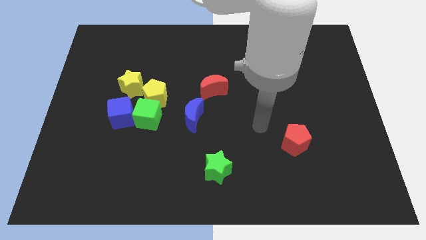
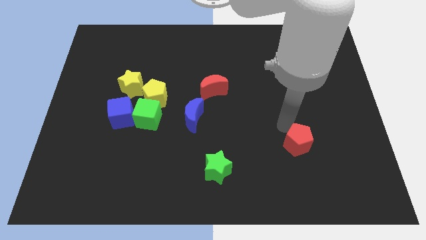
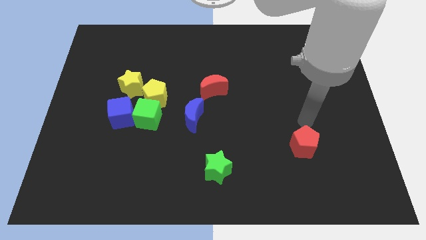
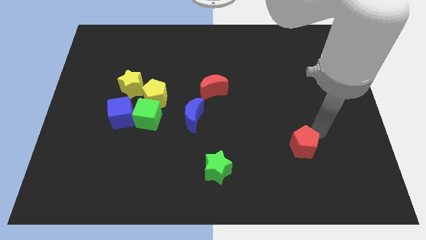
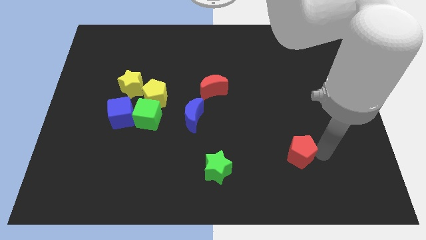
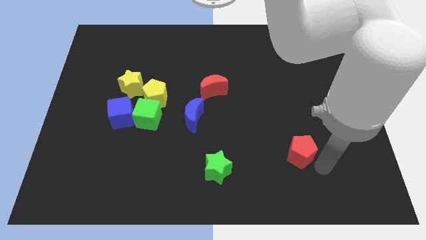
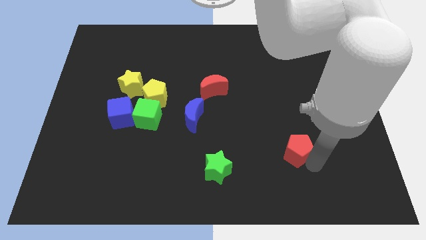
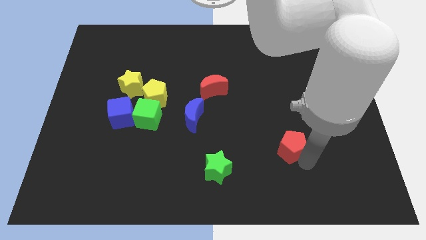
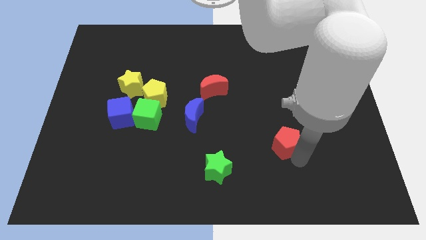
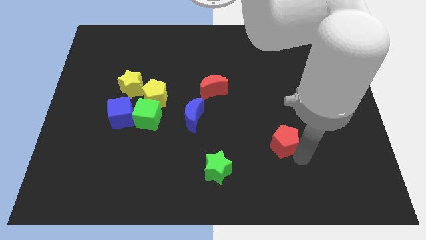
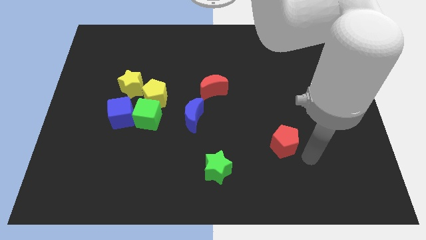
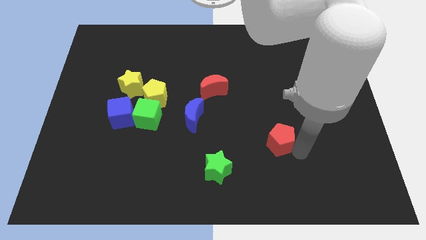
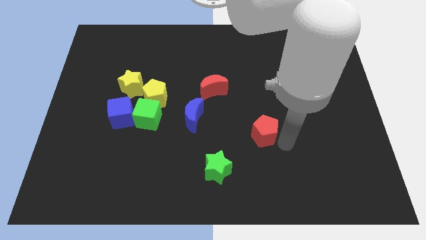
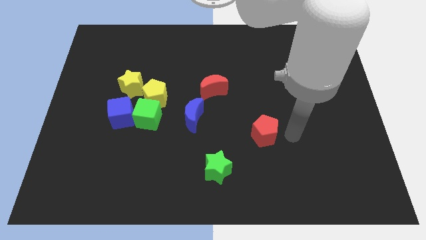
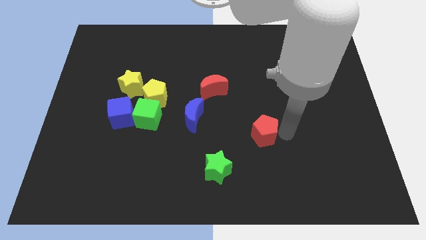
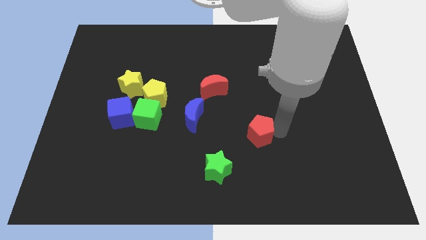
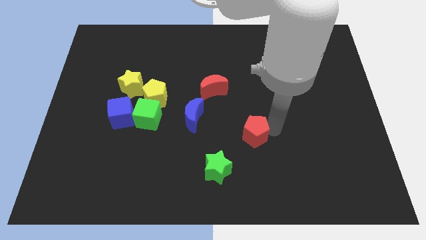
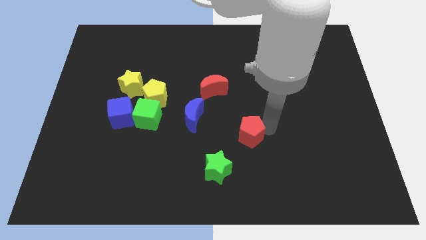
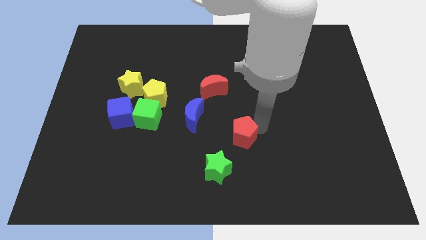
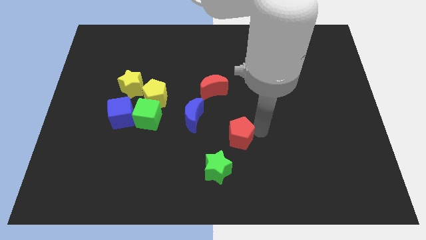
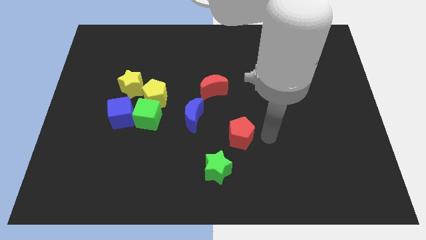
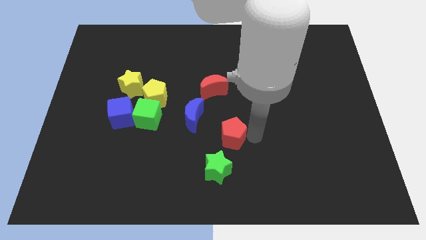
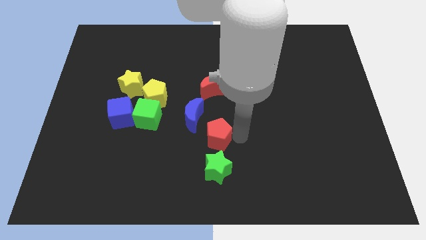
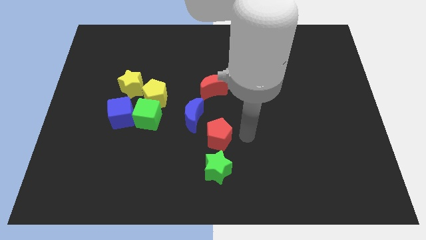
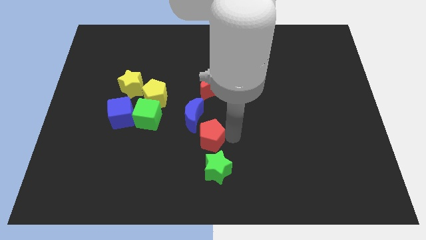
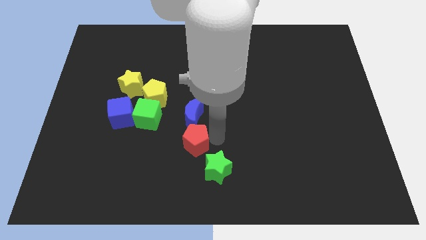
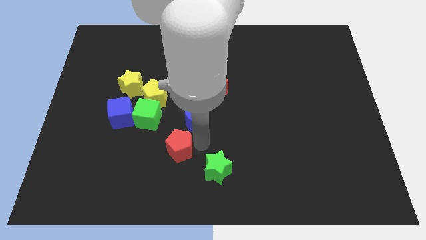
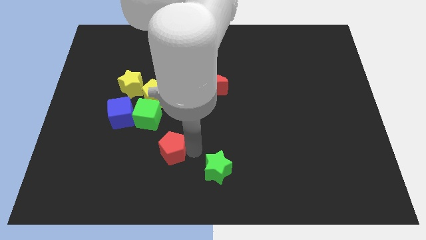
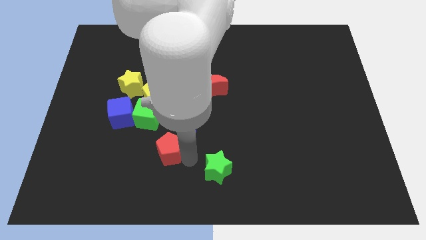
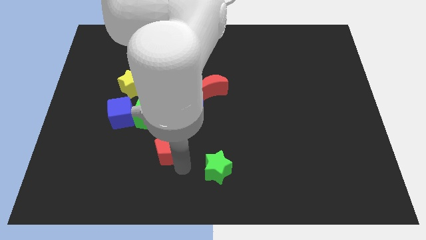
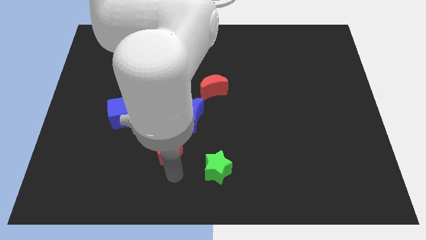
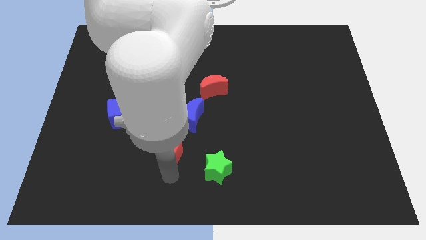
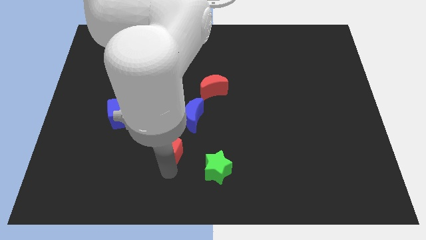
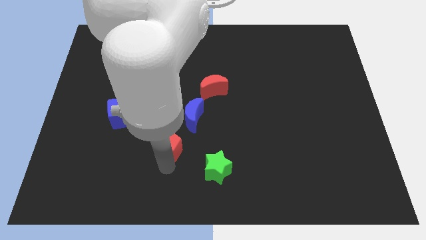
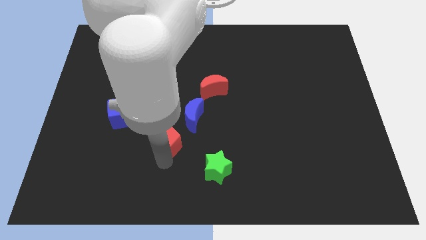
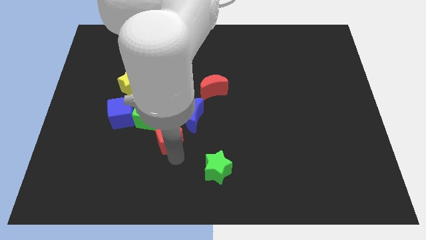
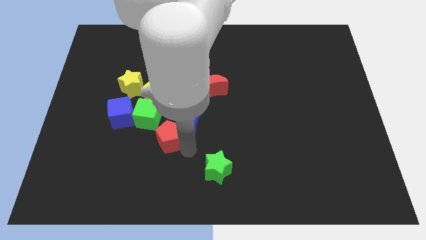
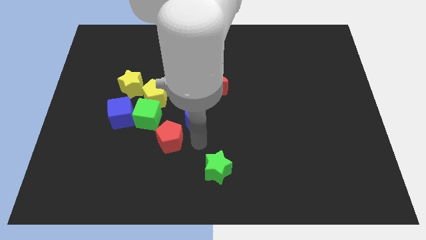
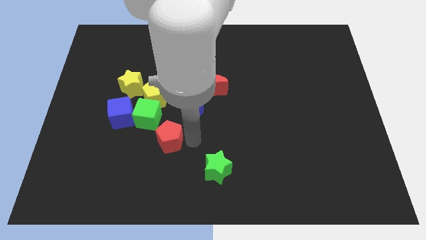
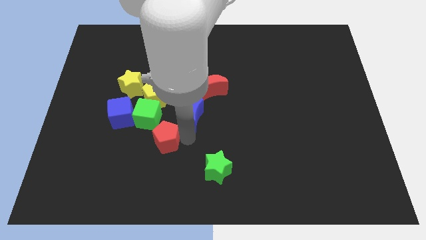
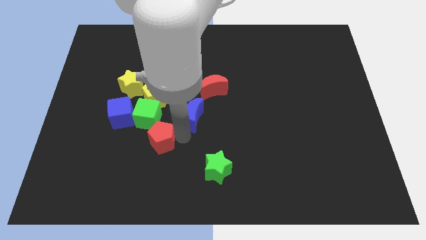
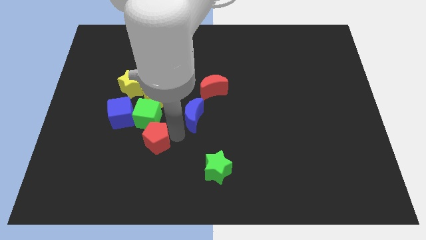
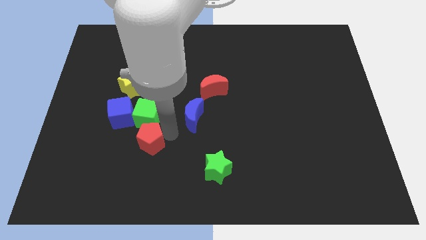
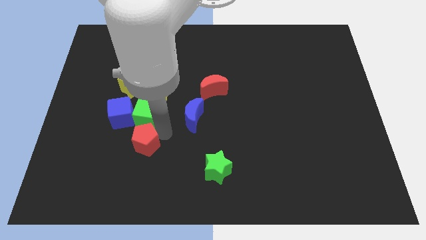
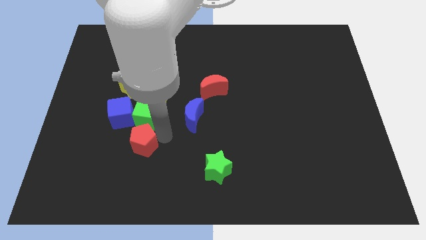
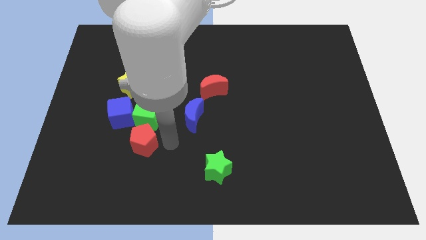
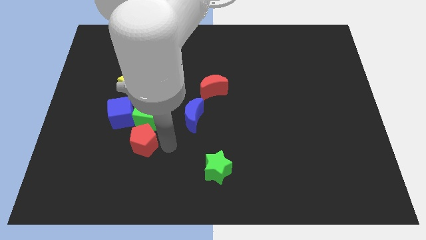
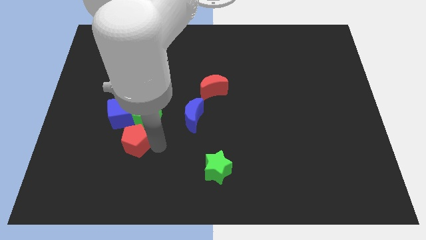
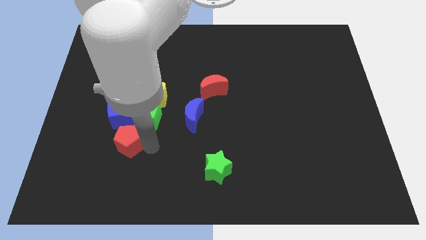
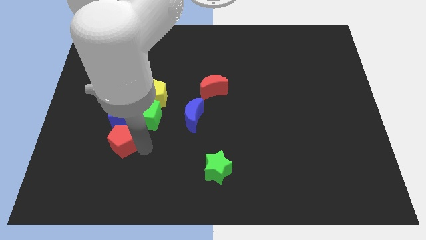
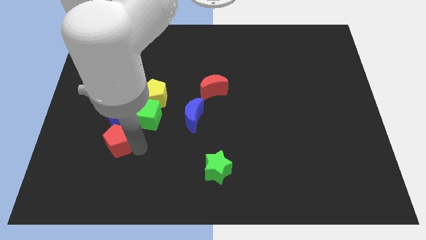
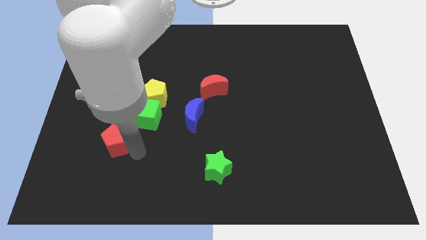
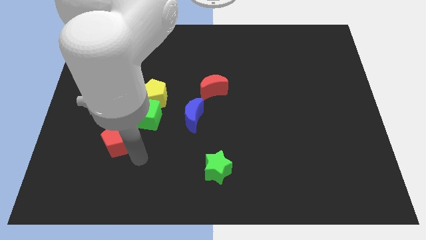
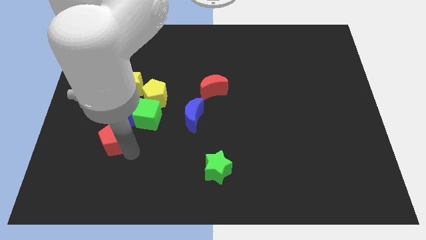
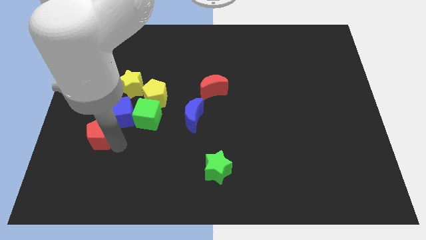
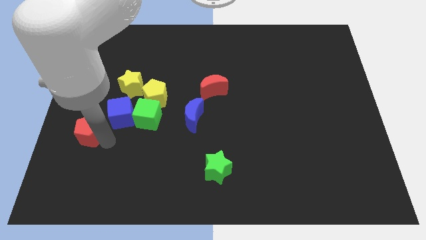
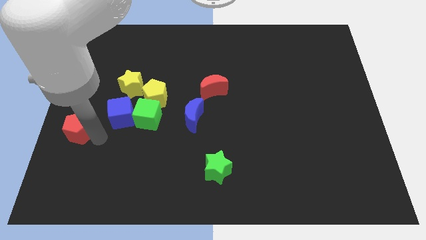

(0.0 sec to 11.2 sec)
slide the red pentagon to the left side
